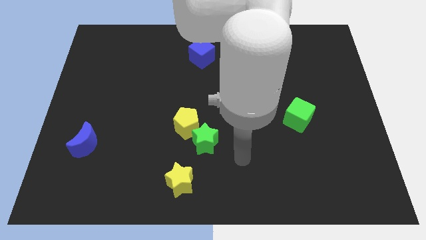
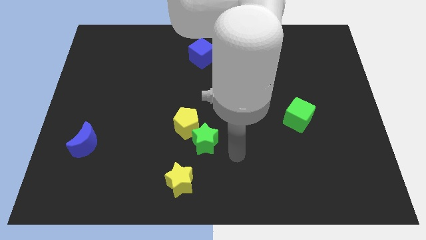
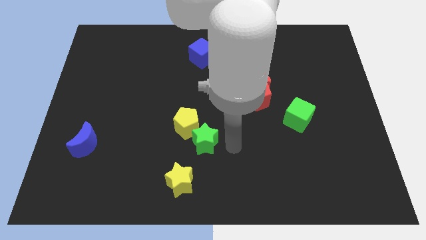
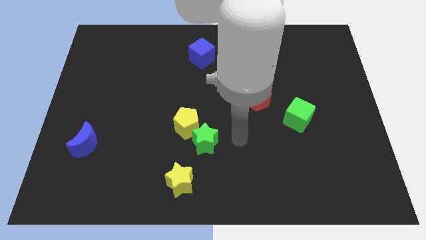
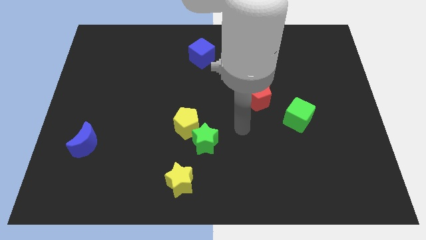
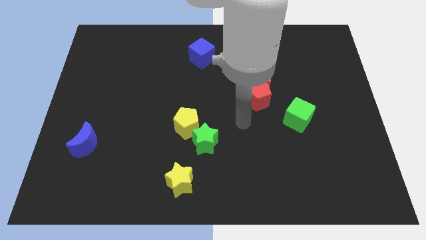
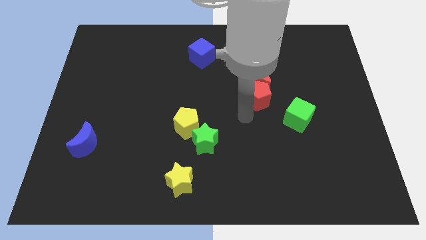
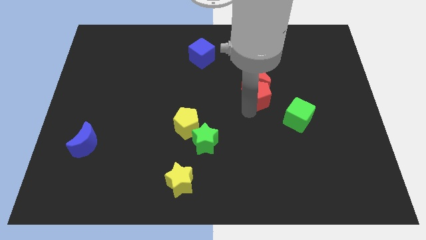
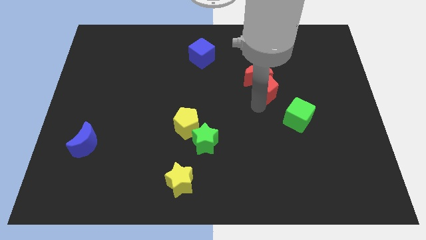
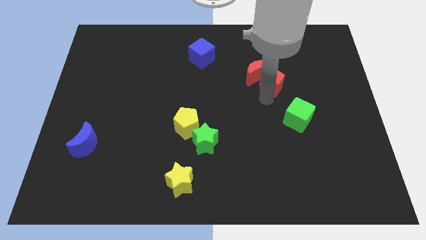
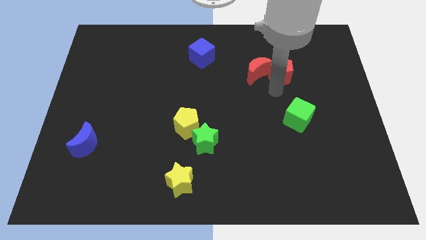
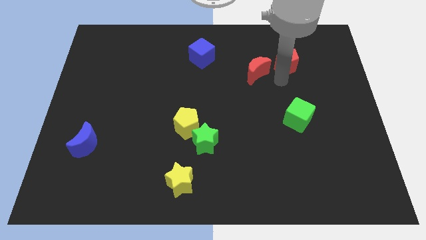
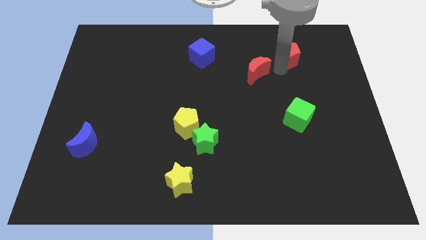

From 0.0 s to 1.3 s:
move the red moon away from the red pentagon

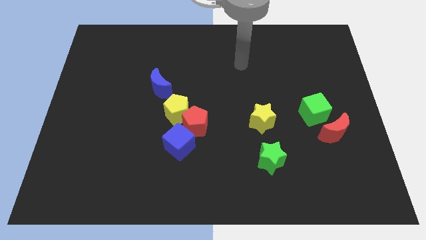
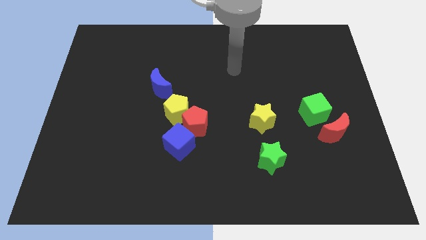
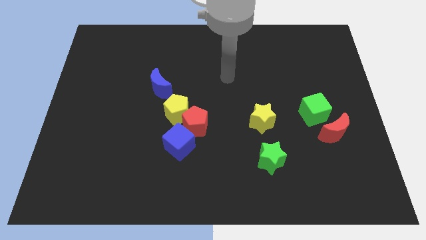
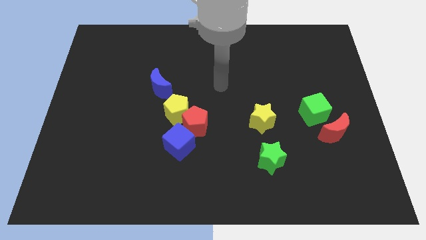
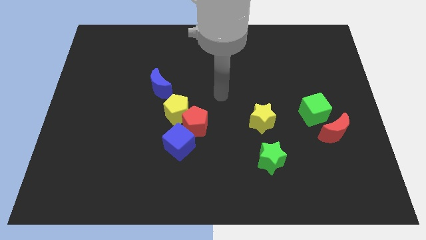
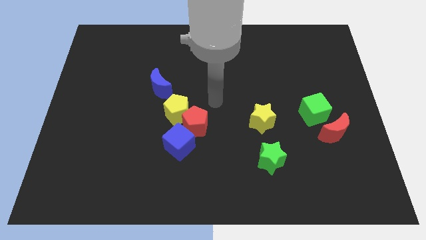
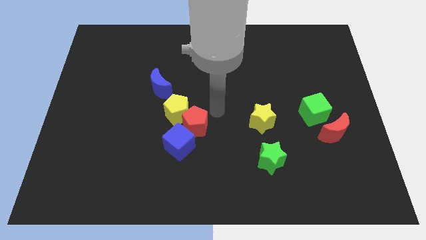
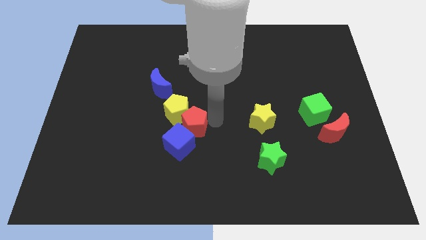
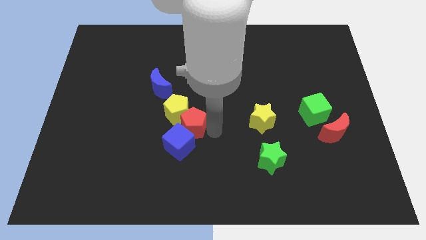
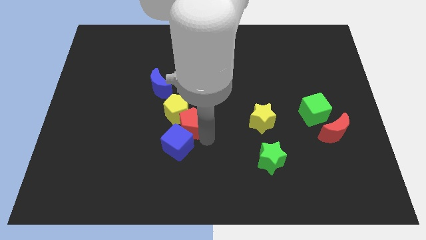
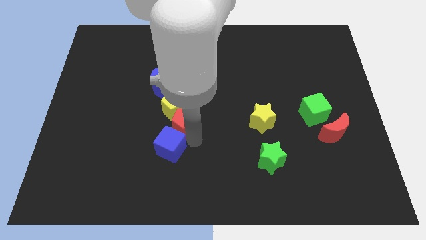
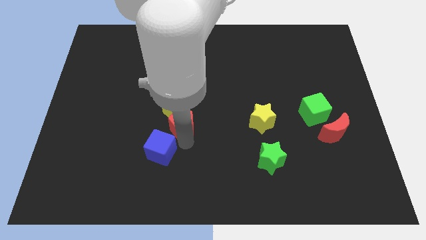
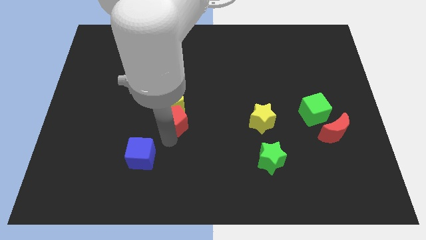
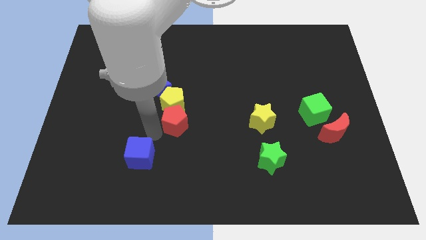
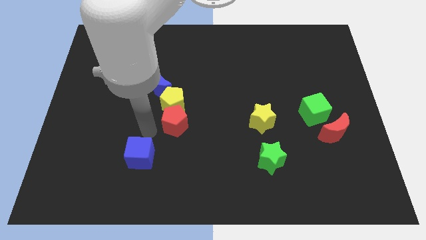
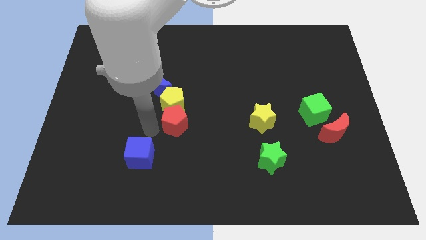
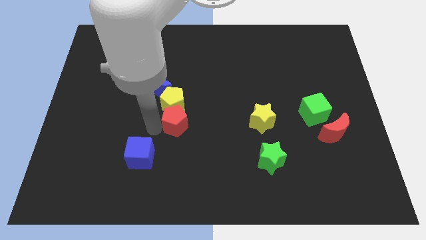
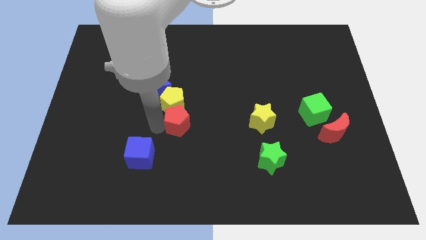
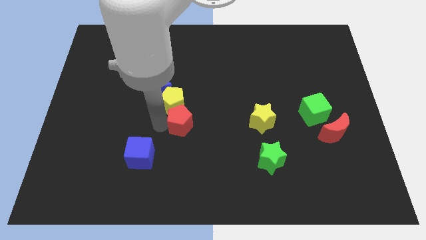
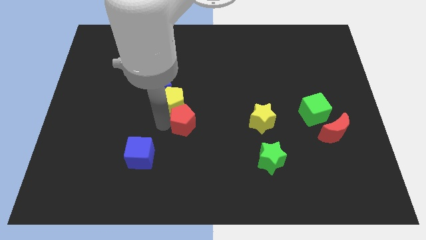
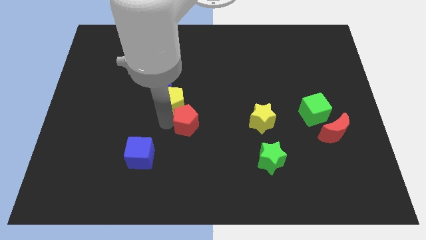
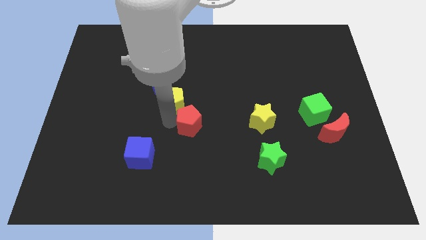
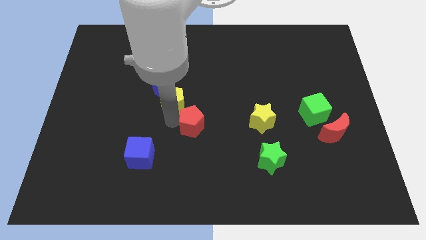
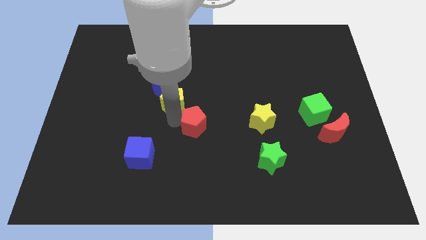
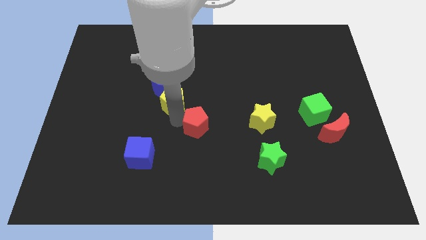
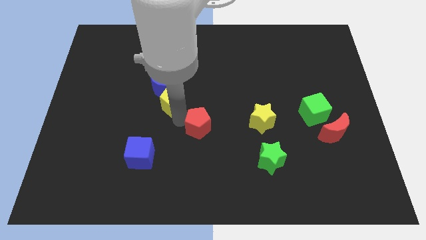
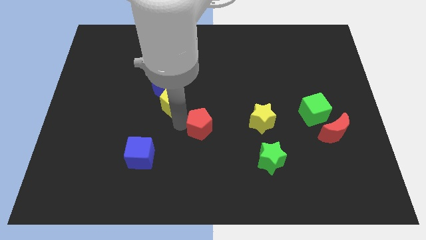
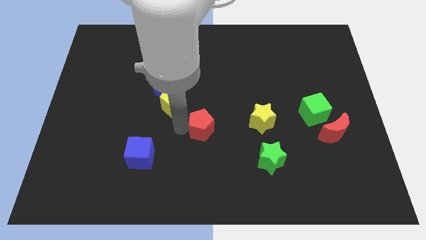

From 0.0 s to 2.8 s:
move the red pentagon away from the yellow pentagon and blue cube

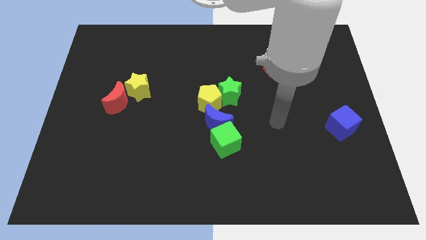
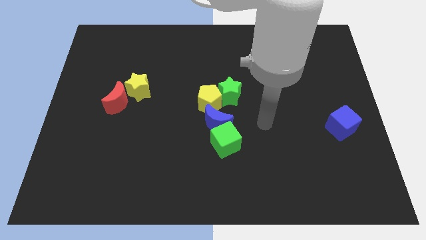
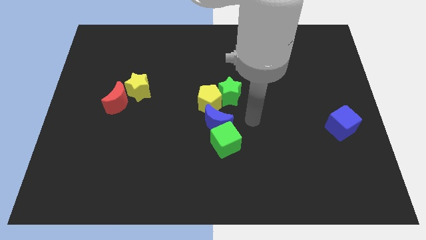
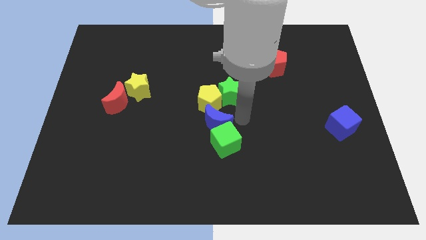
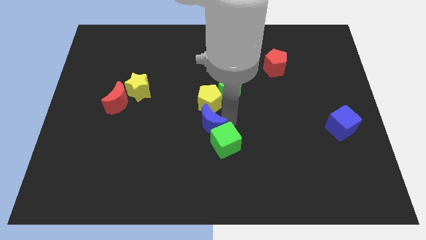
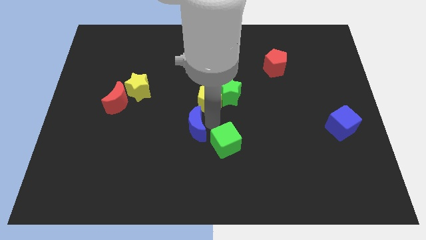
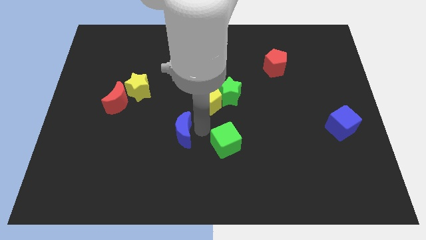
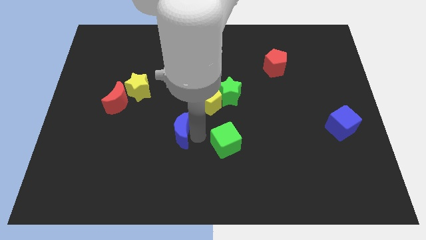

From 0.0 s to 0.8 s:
pull the green cube apart from the blue moon

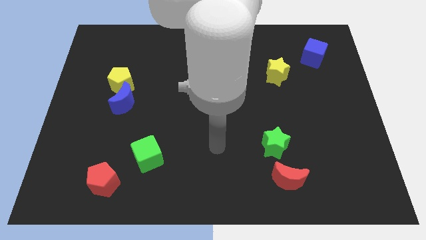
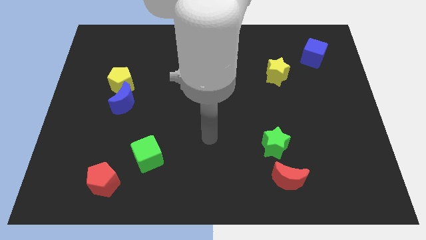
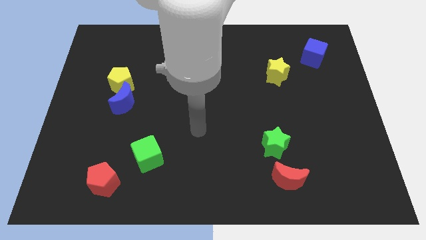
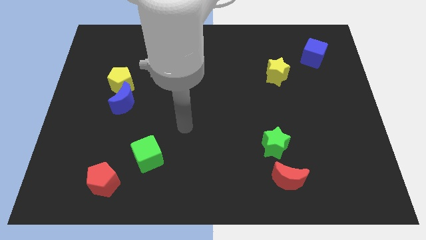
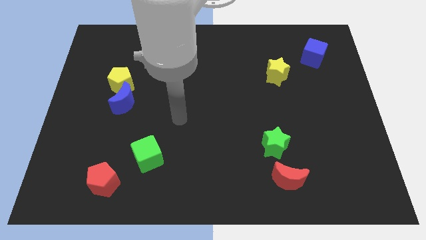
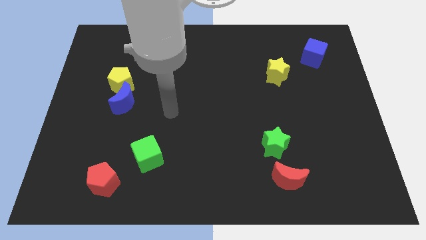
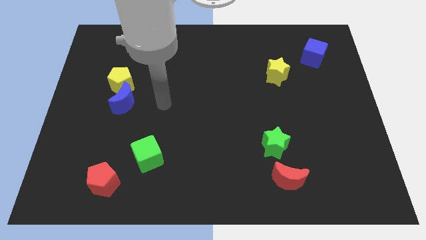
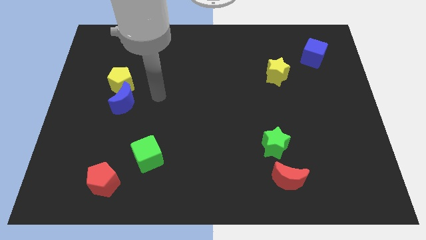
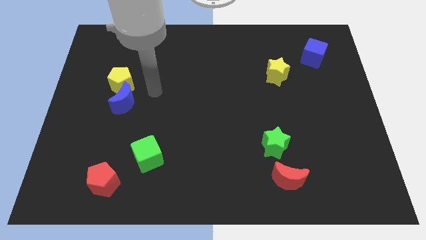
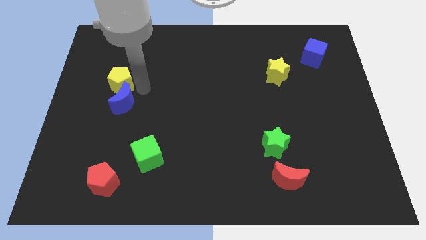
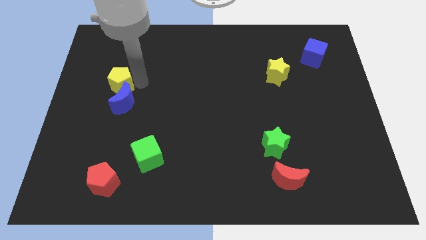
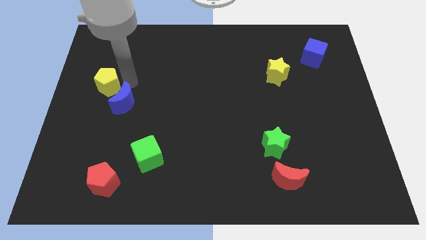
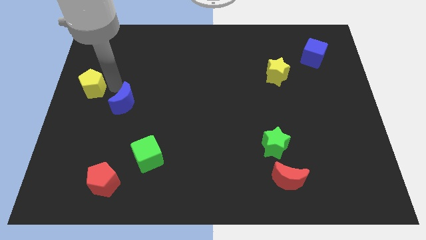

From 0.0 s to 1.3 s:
separate the blue moon from the yellow pentagon

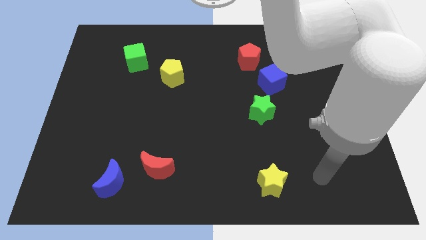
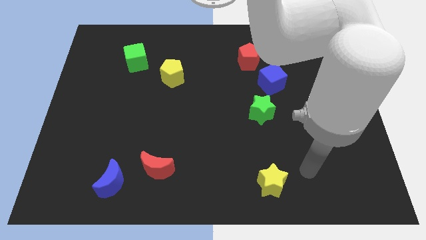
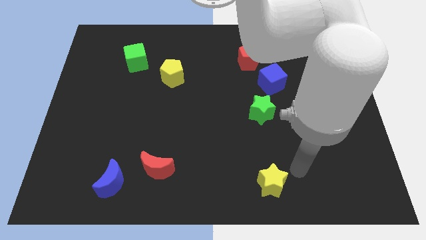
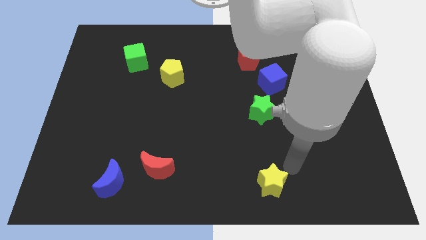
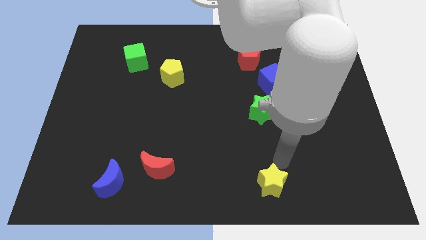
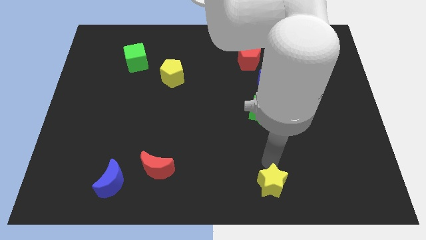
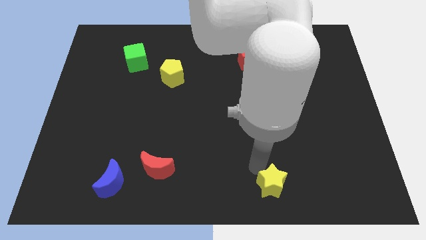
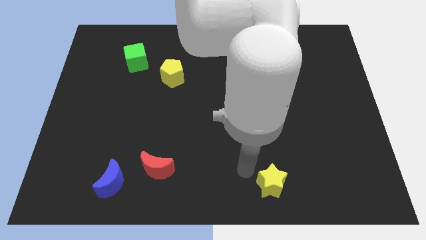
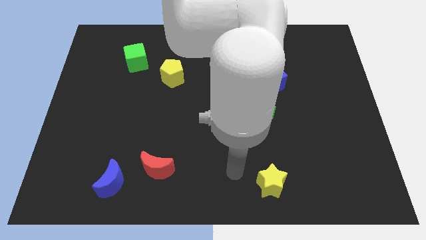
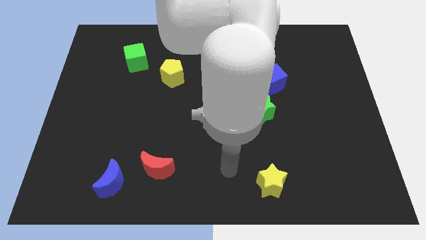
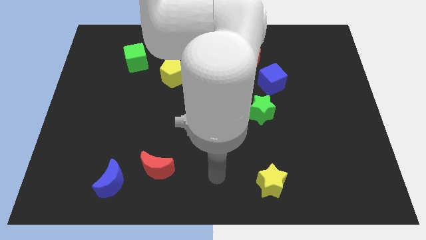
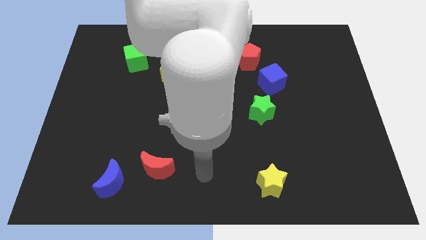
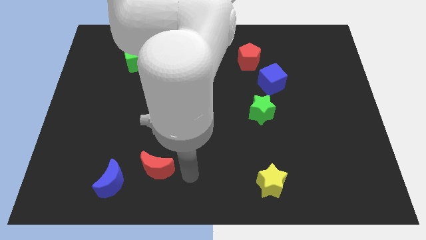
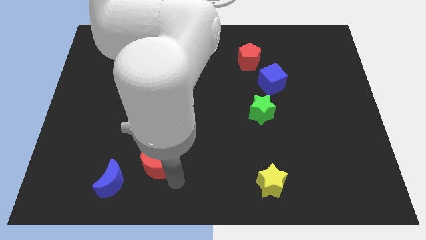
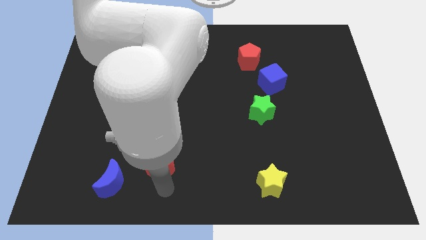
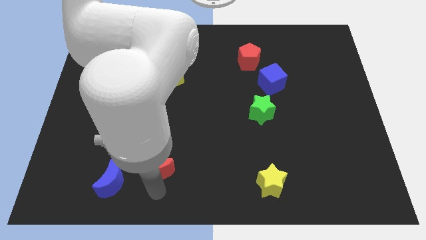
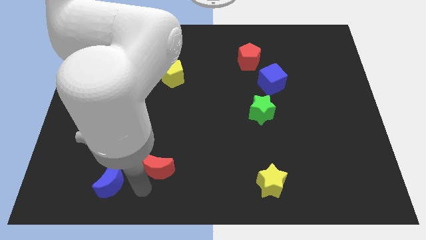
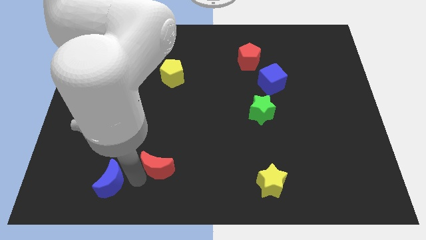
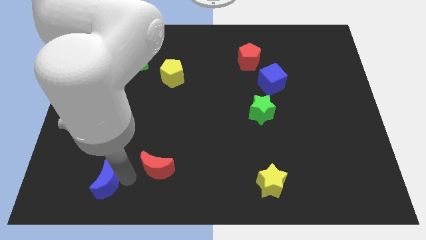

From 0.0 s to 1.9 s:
pull the red moon apart from the blue moon

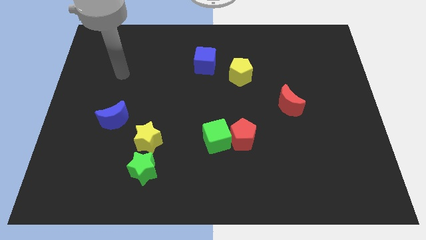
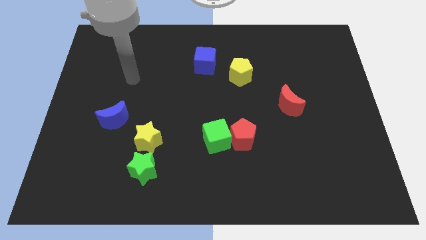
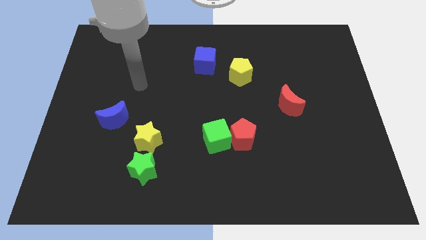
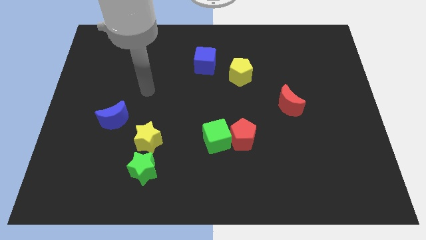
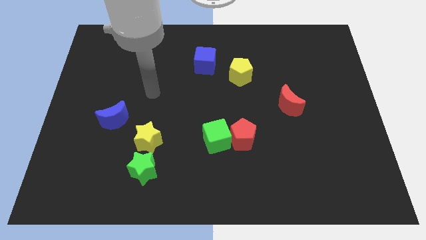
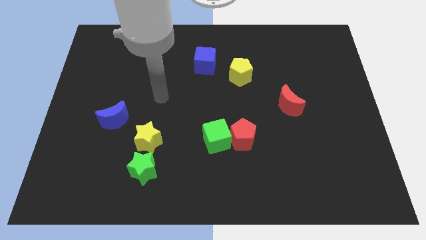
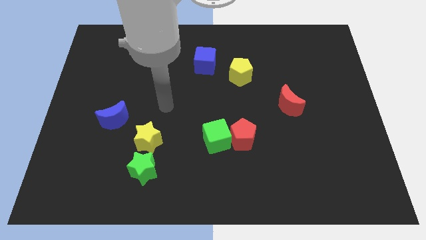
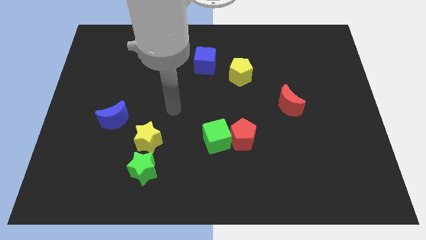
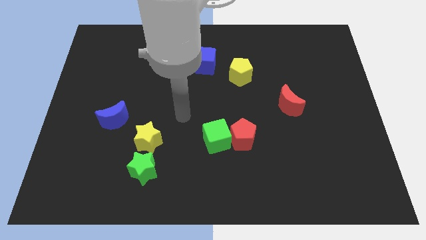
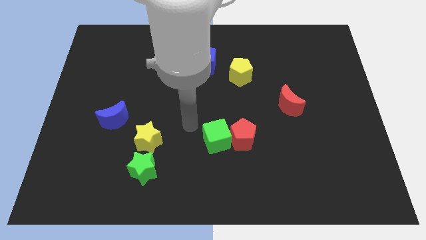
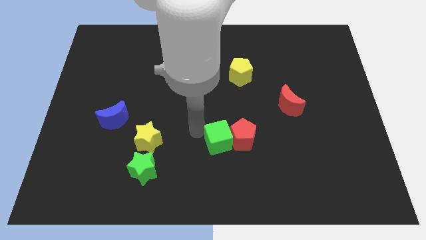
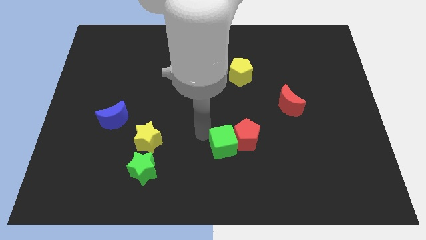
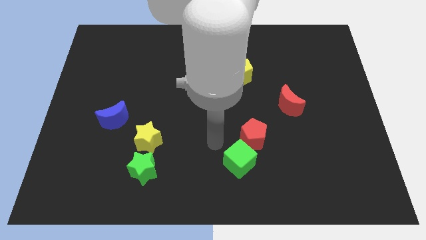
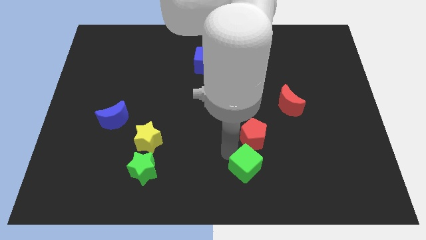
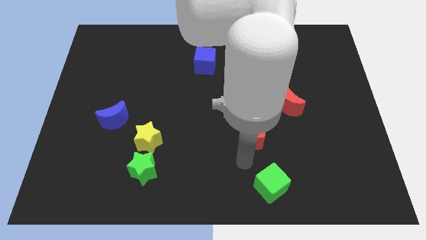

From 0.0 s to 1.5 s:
pull the red pentagon apart from the green cube
